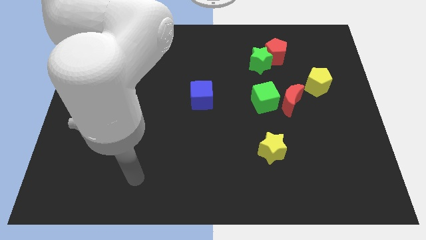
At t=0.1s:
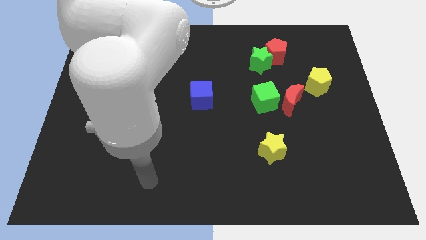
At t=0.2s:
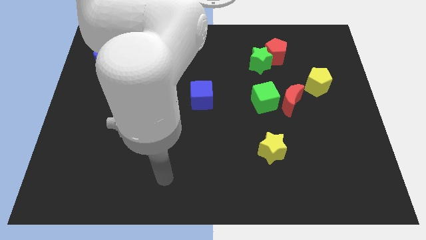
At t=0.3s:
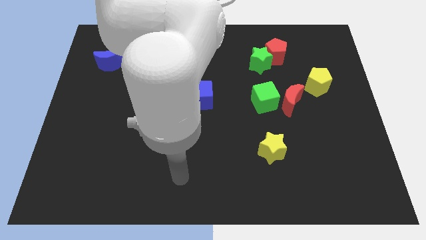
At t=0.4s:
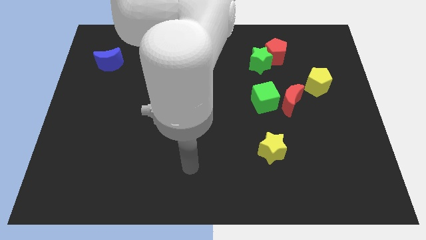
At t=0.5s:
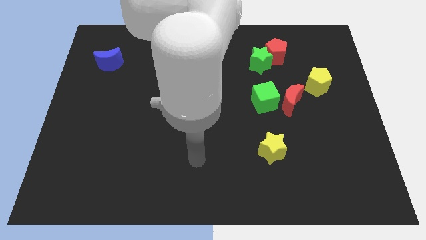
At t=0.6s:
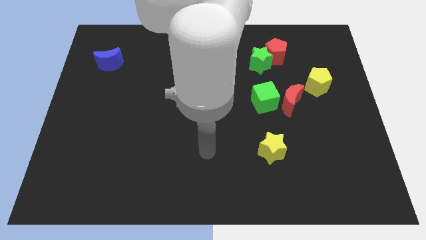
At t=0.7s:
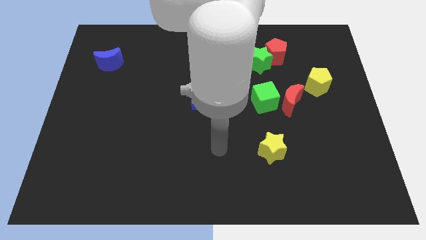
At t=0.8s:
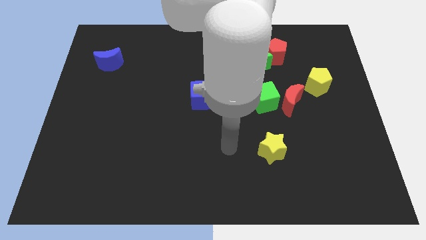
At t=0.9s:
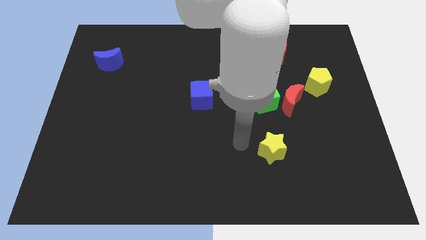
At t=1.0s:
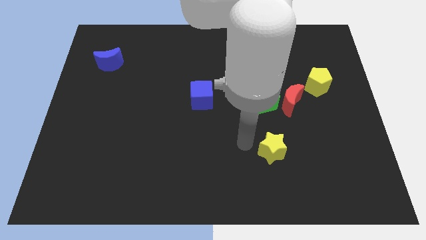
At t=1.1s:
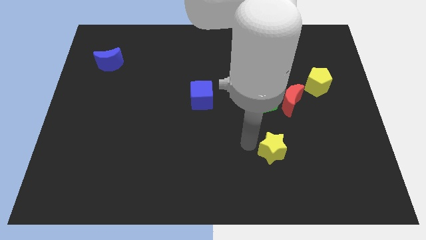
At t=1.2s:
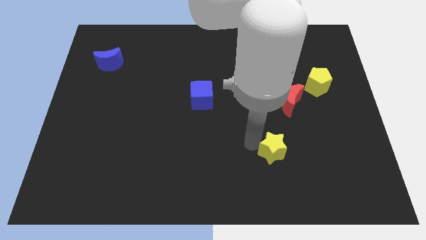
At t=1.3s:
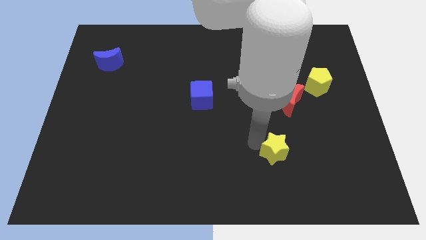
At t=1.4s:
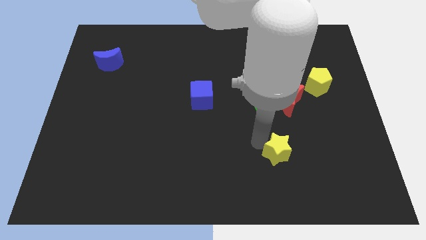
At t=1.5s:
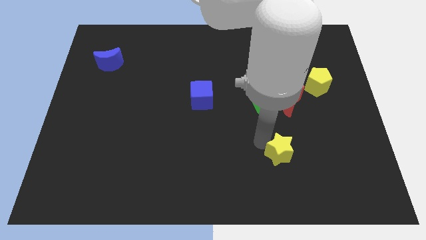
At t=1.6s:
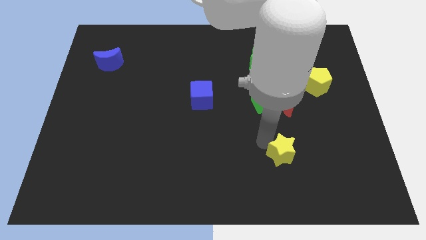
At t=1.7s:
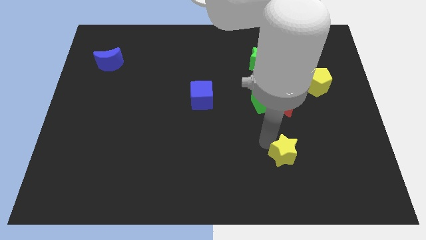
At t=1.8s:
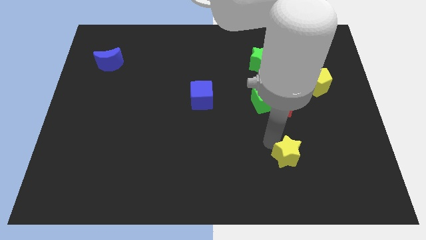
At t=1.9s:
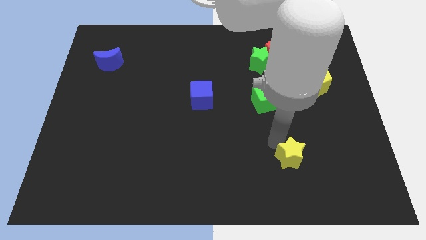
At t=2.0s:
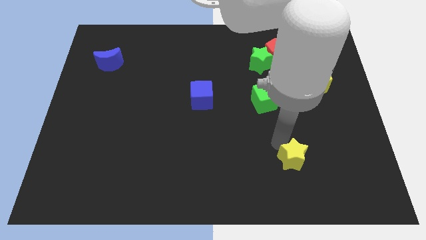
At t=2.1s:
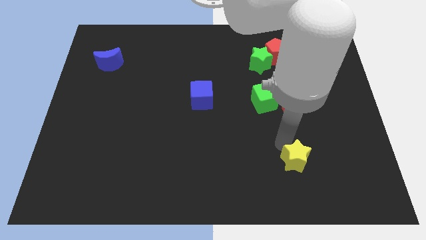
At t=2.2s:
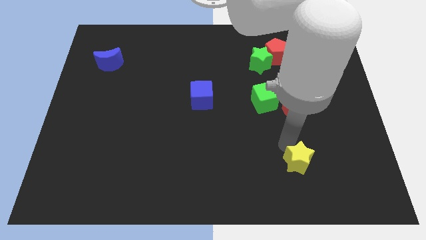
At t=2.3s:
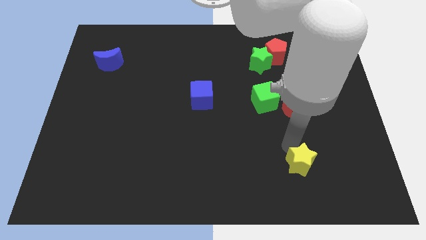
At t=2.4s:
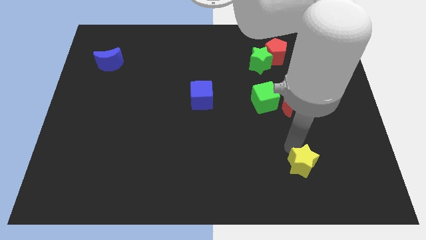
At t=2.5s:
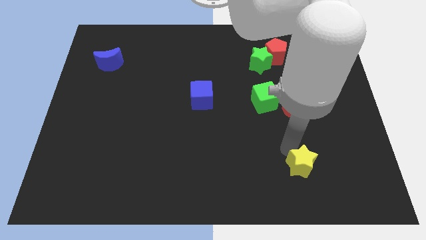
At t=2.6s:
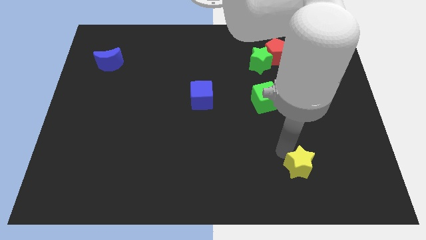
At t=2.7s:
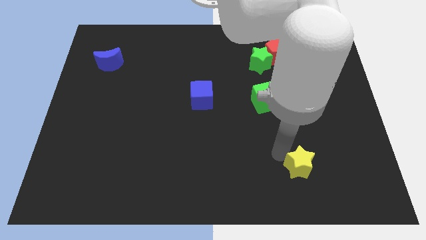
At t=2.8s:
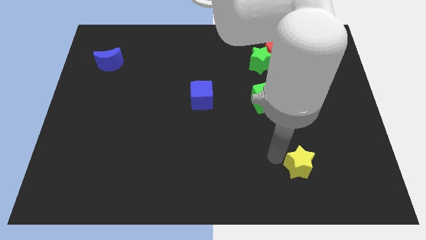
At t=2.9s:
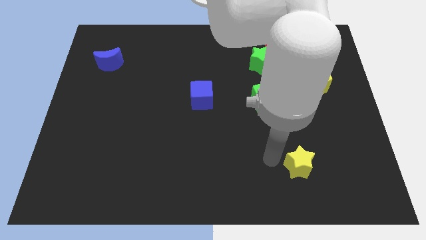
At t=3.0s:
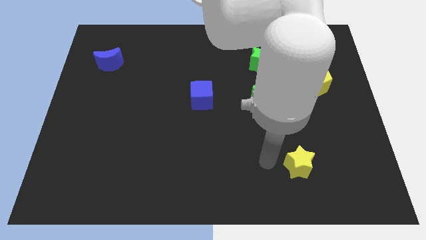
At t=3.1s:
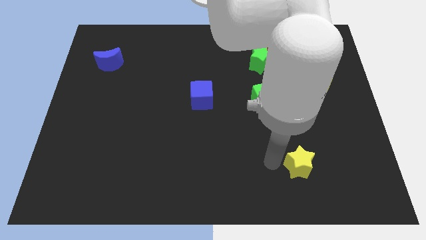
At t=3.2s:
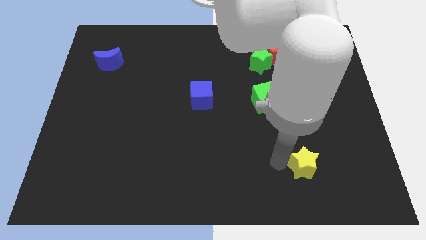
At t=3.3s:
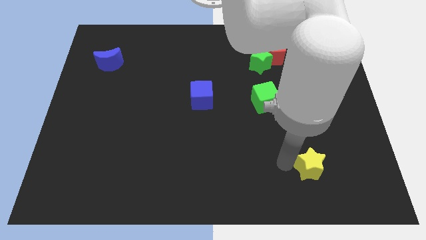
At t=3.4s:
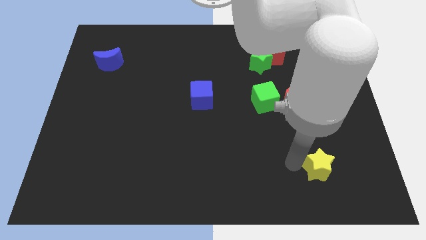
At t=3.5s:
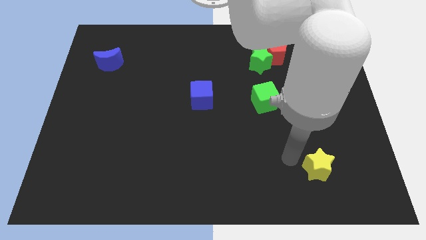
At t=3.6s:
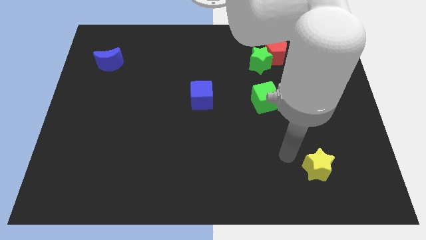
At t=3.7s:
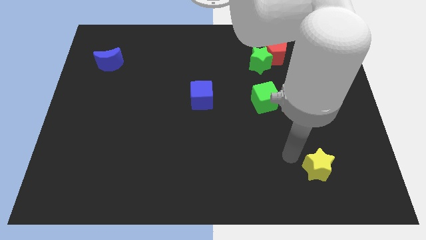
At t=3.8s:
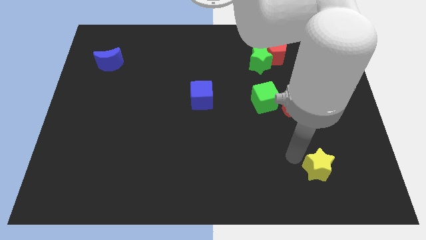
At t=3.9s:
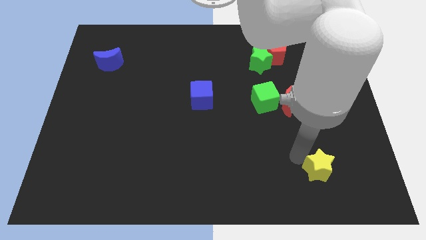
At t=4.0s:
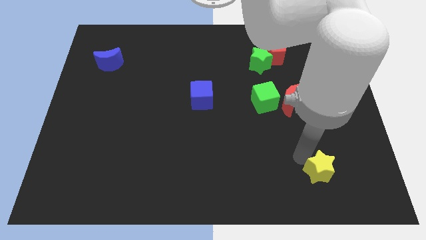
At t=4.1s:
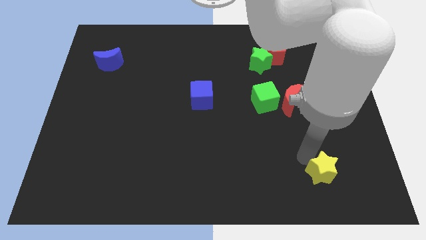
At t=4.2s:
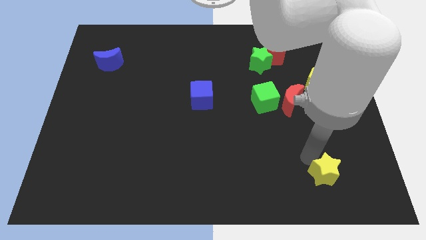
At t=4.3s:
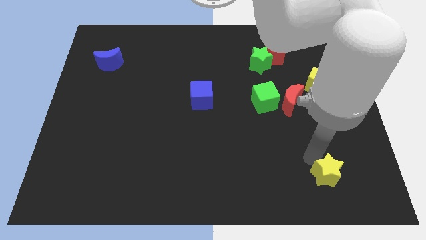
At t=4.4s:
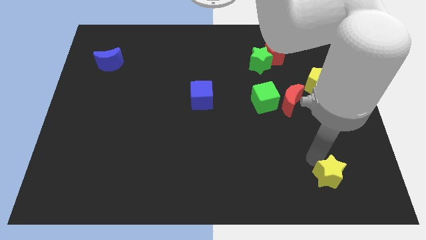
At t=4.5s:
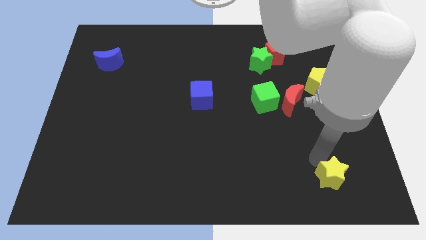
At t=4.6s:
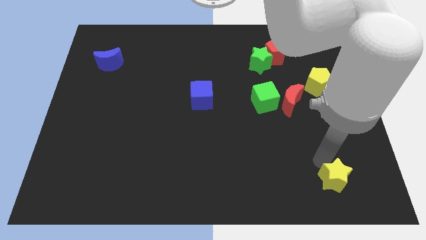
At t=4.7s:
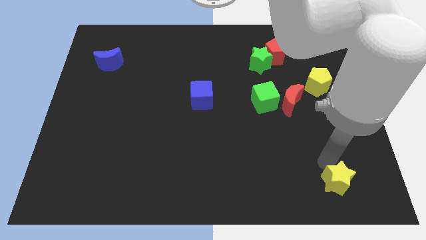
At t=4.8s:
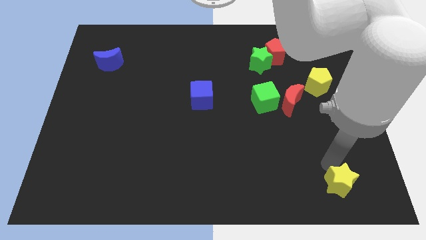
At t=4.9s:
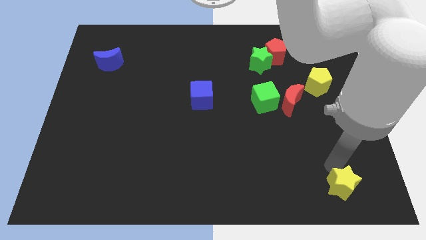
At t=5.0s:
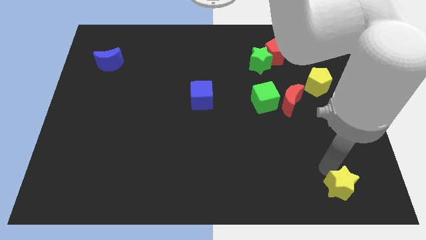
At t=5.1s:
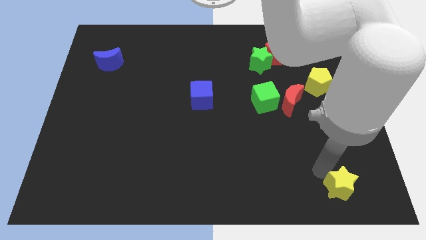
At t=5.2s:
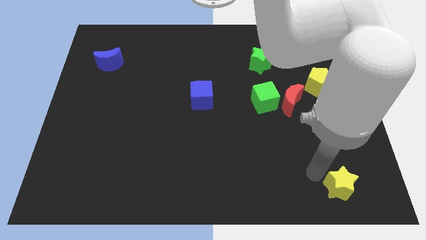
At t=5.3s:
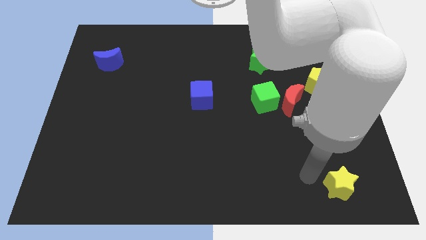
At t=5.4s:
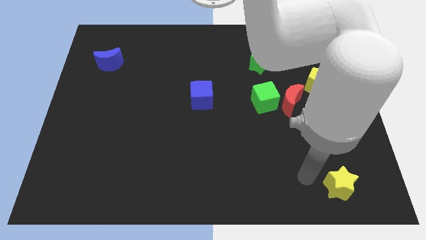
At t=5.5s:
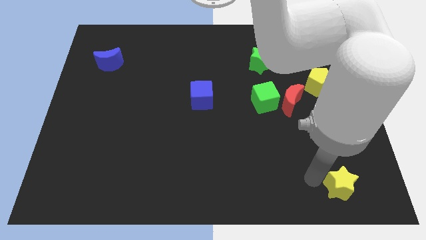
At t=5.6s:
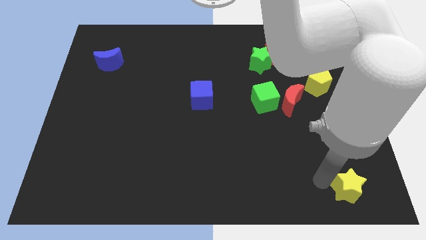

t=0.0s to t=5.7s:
slide the yellow star to the bottom right of the board

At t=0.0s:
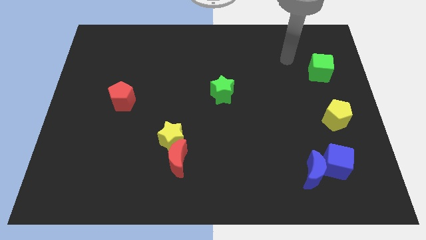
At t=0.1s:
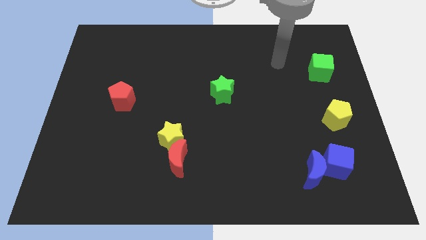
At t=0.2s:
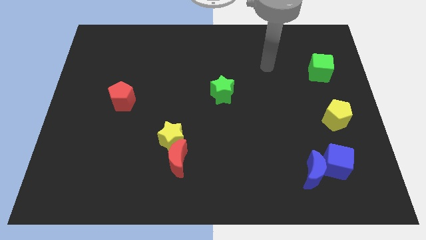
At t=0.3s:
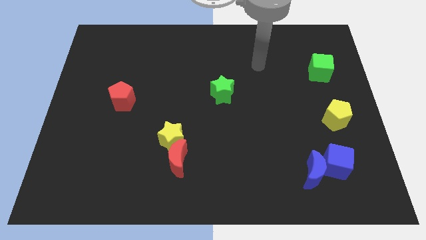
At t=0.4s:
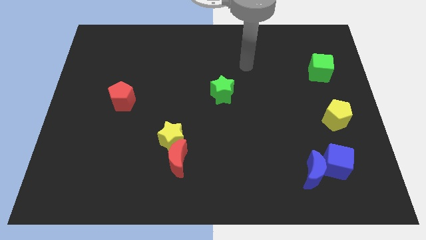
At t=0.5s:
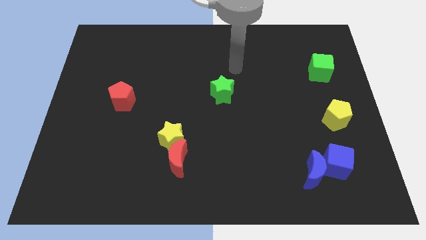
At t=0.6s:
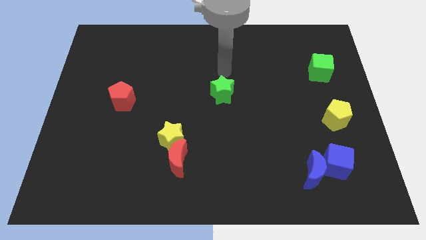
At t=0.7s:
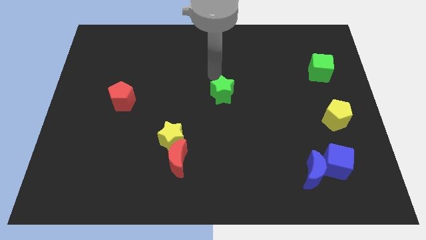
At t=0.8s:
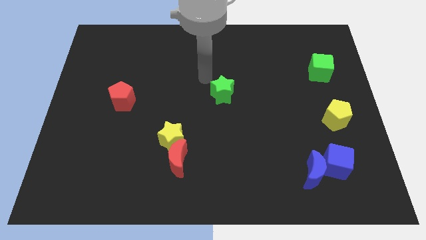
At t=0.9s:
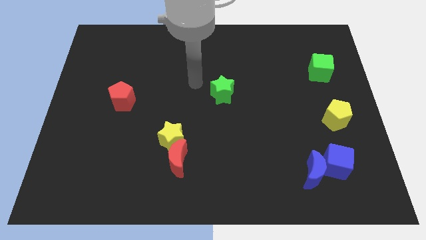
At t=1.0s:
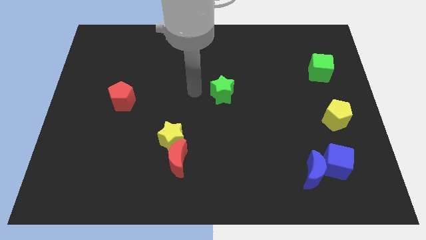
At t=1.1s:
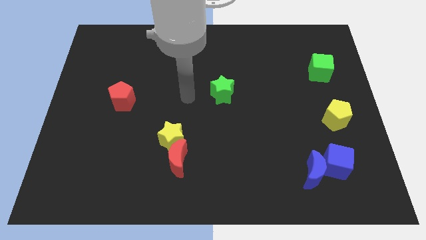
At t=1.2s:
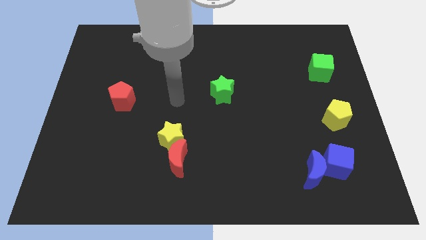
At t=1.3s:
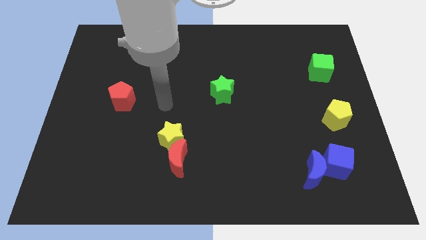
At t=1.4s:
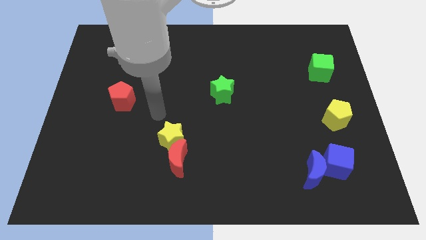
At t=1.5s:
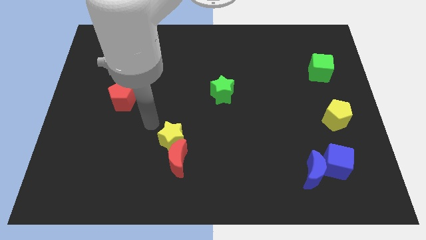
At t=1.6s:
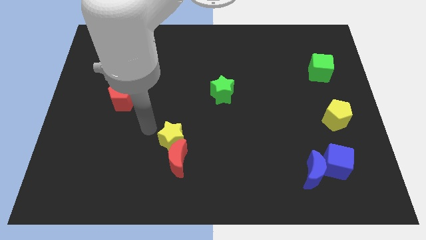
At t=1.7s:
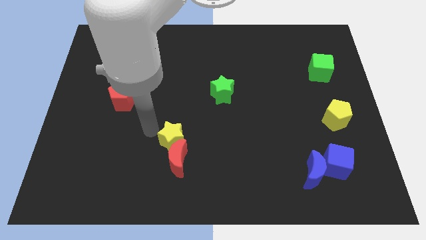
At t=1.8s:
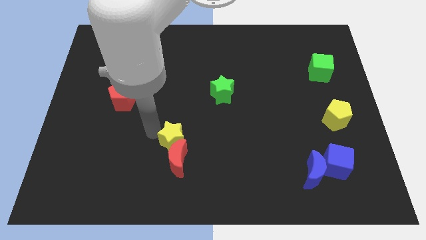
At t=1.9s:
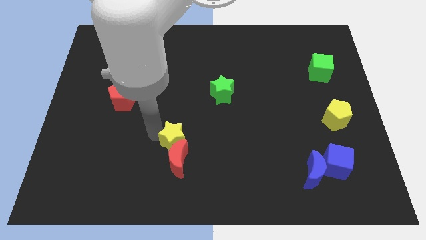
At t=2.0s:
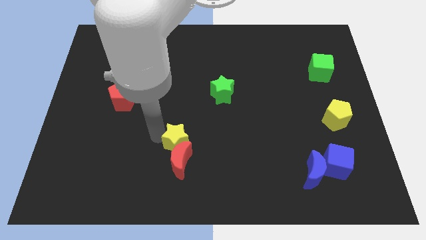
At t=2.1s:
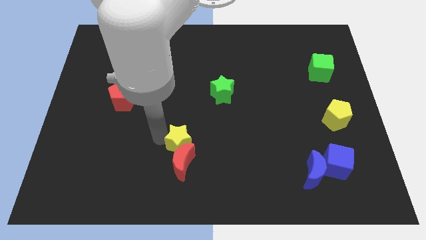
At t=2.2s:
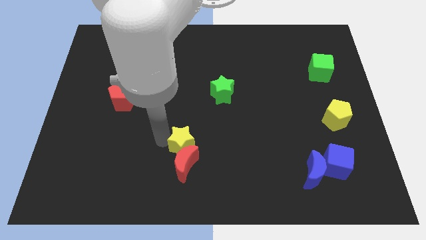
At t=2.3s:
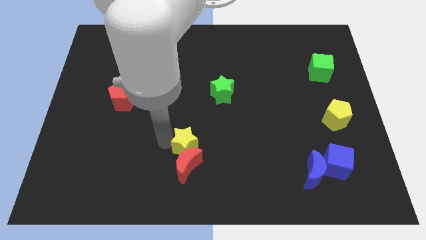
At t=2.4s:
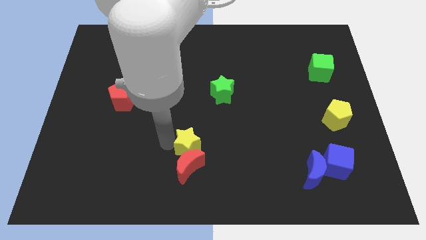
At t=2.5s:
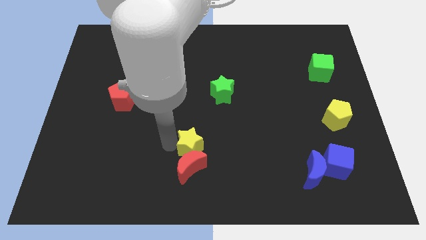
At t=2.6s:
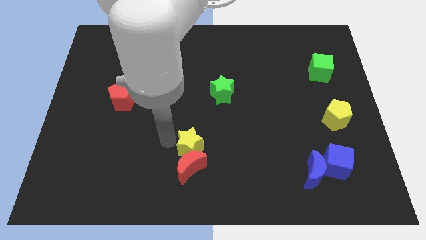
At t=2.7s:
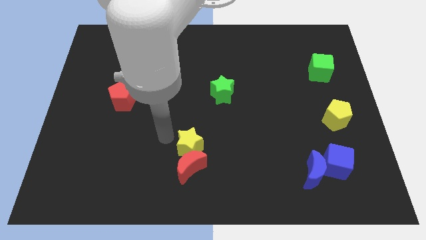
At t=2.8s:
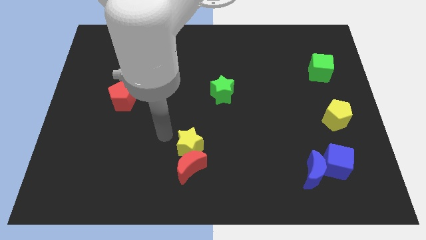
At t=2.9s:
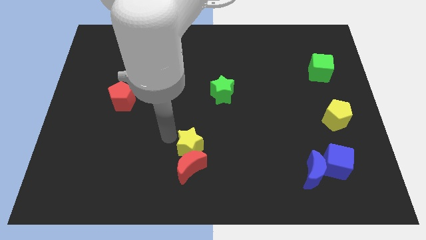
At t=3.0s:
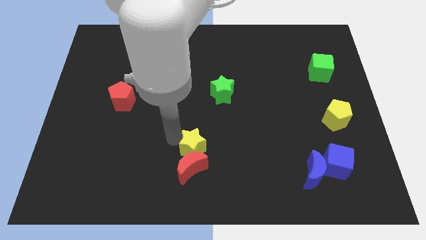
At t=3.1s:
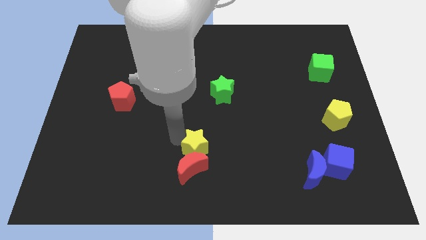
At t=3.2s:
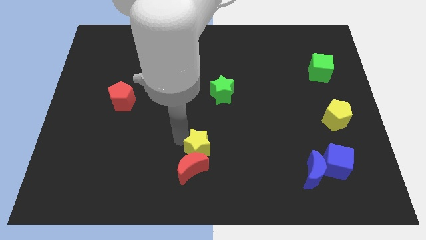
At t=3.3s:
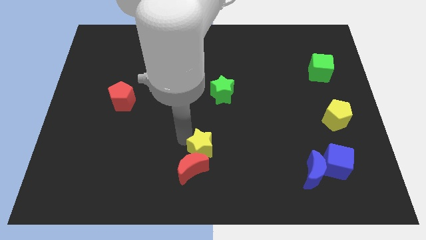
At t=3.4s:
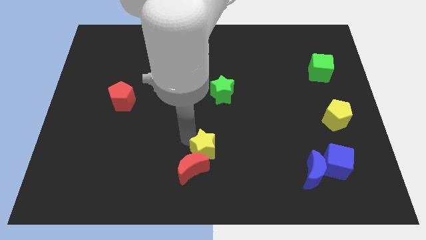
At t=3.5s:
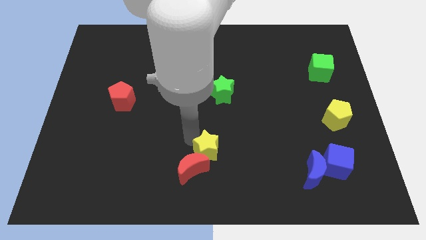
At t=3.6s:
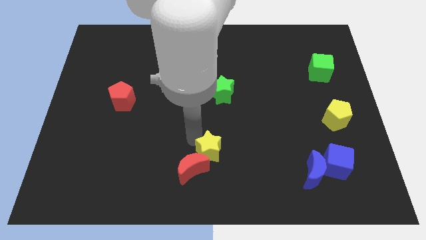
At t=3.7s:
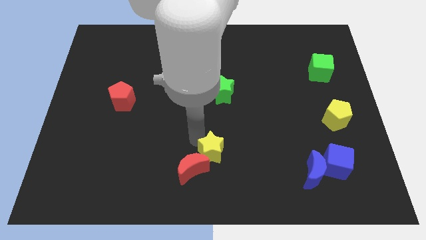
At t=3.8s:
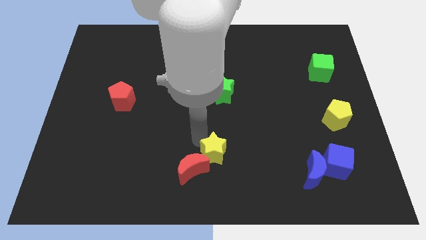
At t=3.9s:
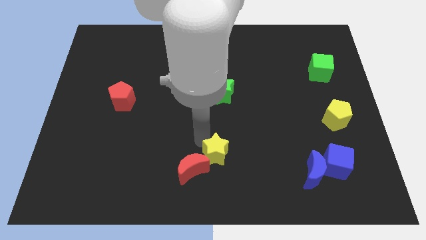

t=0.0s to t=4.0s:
move the yellow star to the bottom
